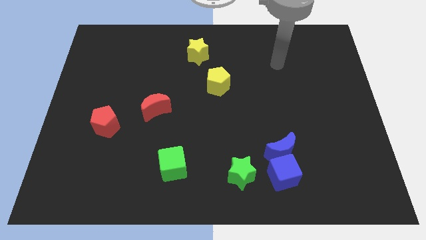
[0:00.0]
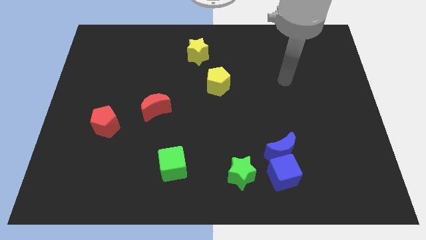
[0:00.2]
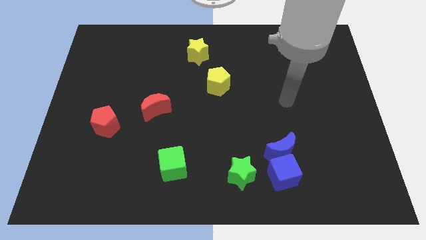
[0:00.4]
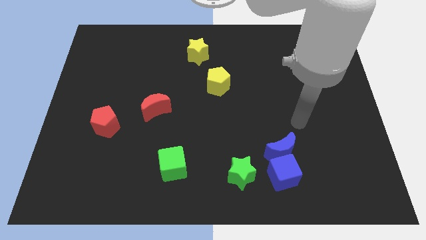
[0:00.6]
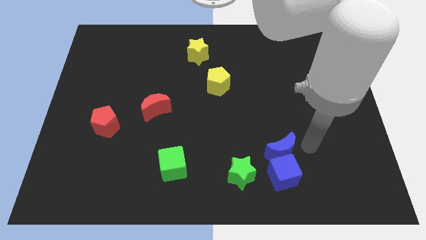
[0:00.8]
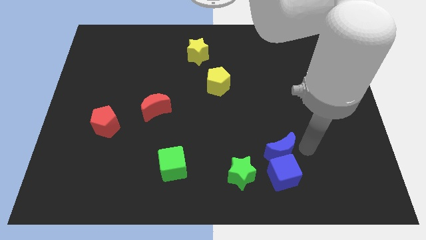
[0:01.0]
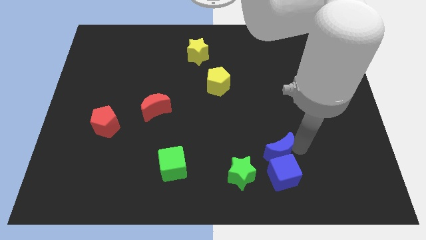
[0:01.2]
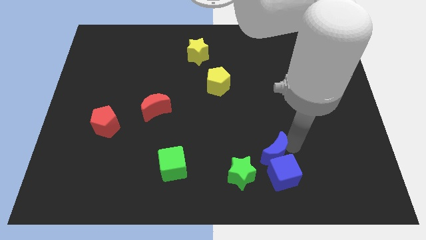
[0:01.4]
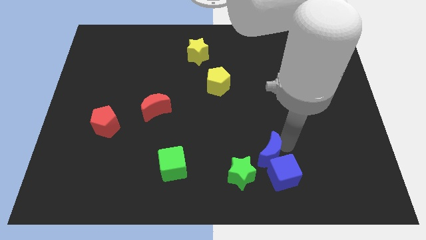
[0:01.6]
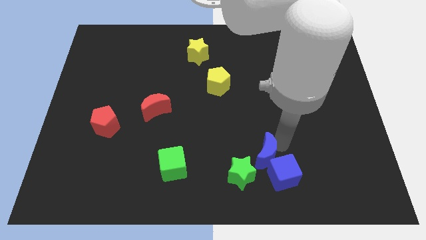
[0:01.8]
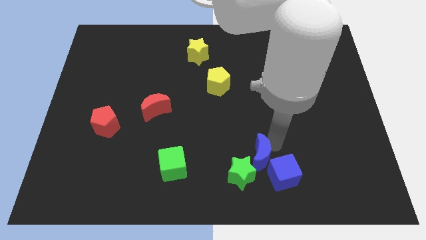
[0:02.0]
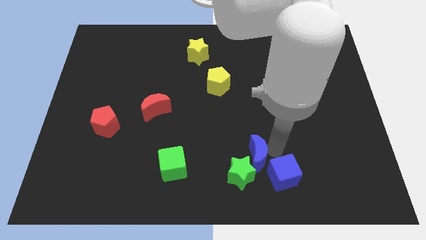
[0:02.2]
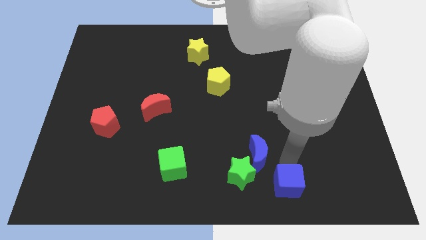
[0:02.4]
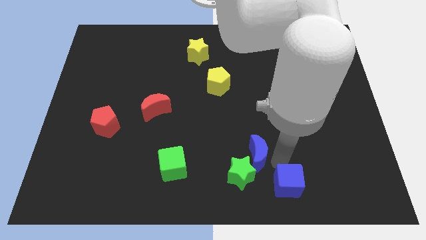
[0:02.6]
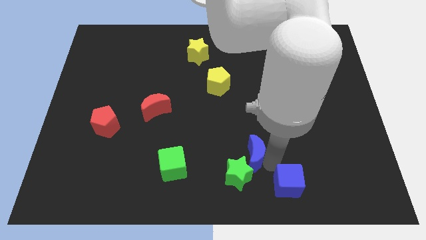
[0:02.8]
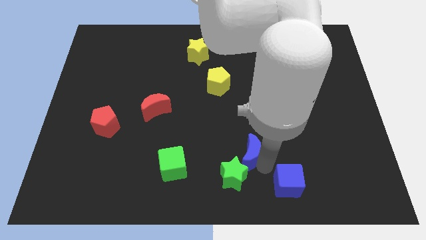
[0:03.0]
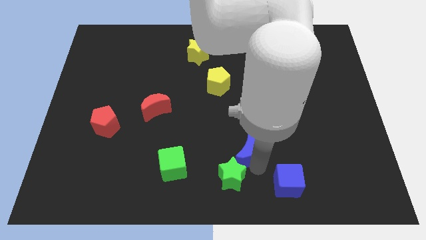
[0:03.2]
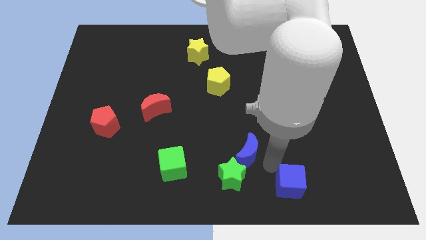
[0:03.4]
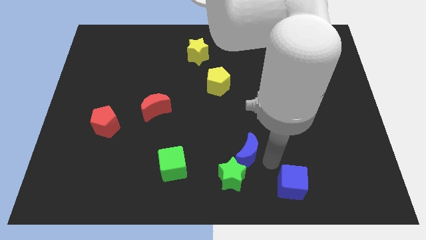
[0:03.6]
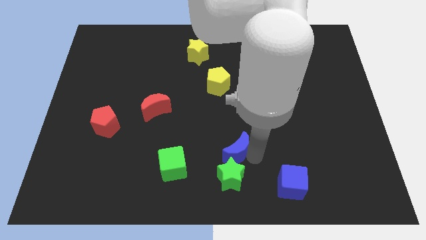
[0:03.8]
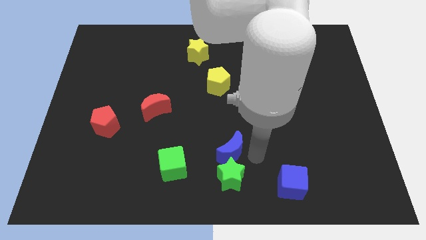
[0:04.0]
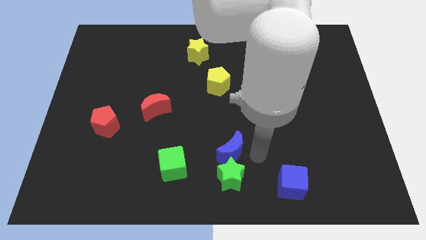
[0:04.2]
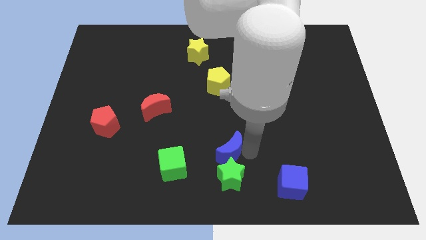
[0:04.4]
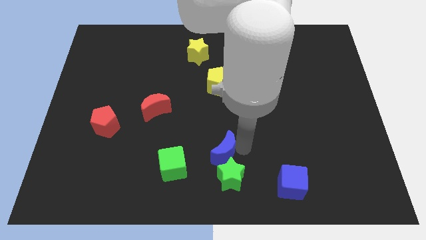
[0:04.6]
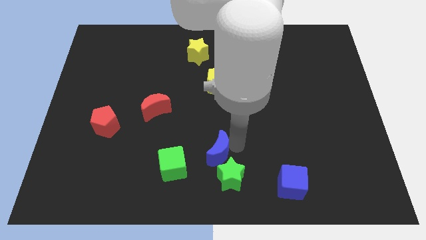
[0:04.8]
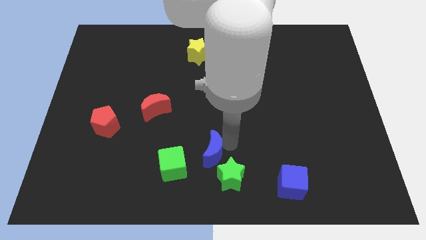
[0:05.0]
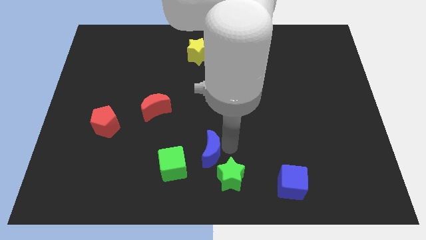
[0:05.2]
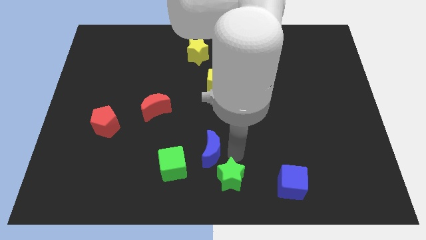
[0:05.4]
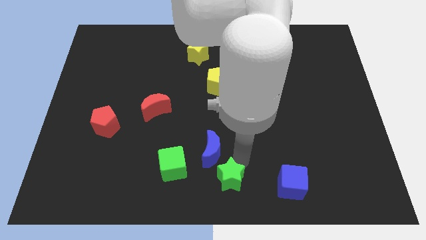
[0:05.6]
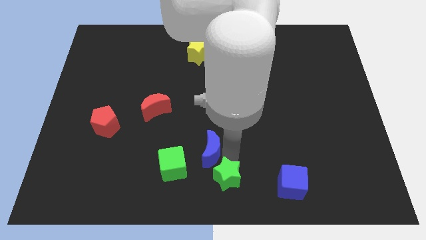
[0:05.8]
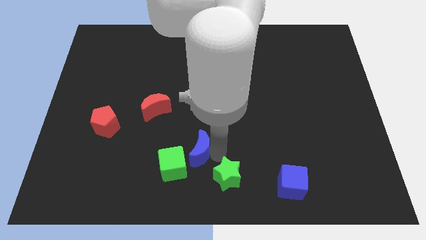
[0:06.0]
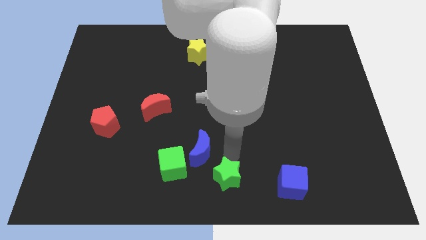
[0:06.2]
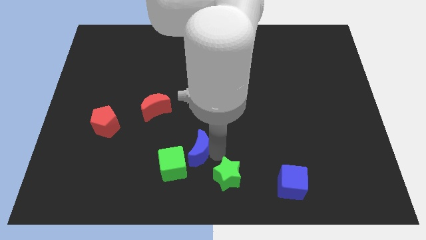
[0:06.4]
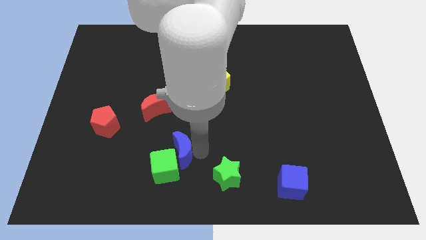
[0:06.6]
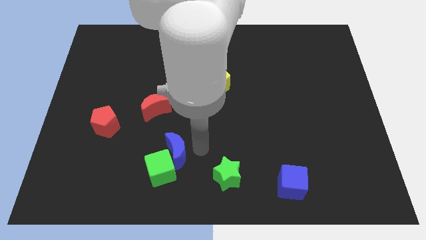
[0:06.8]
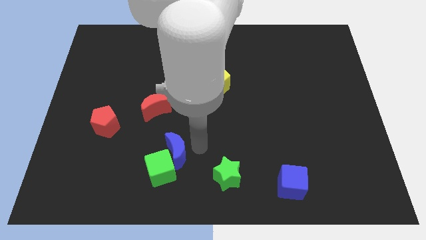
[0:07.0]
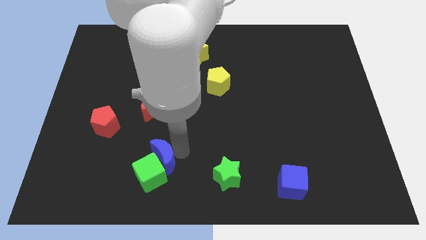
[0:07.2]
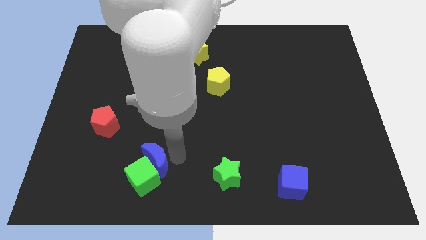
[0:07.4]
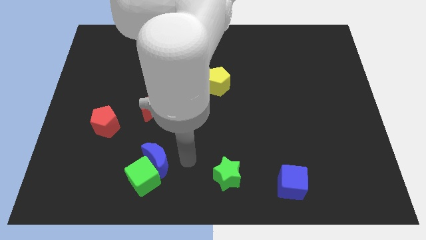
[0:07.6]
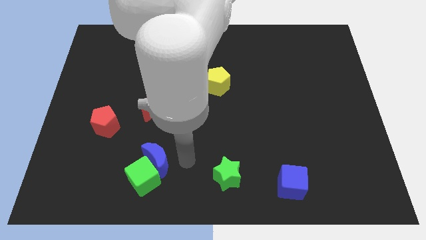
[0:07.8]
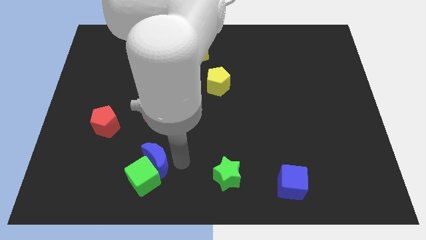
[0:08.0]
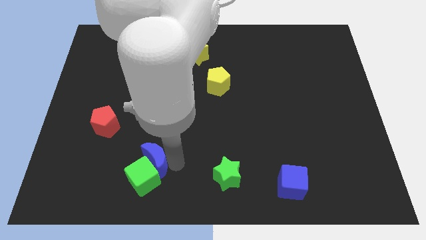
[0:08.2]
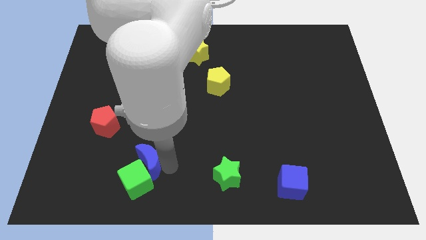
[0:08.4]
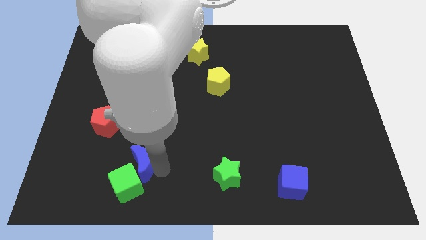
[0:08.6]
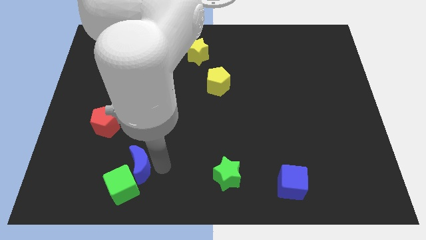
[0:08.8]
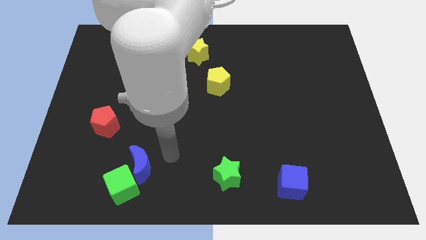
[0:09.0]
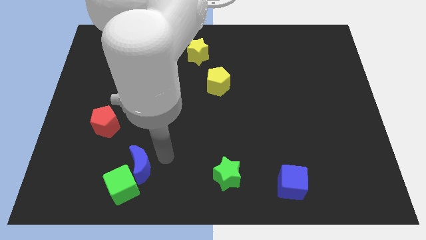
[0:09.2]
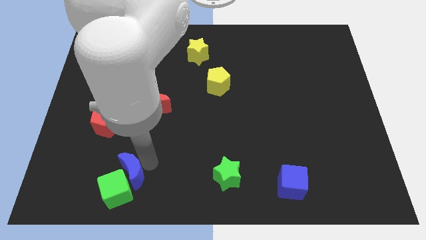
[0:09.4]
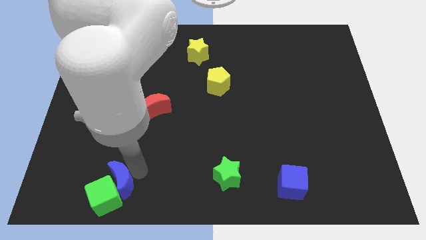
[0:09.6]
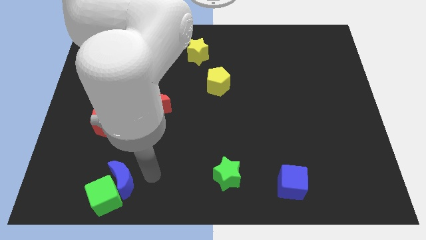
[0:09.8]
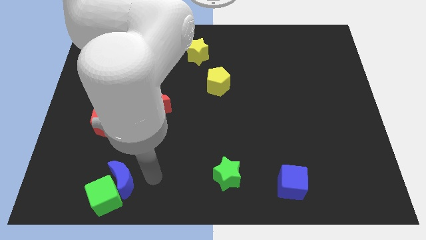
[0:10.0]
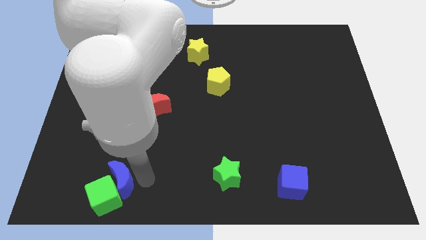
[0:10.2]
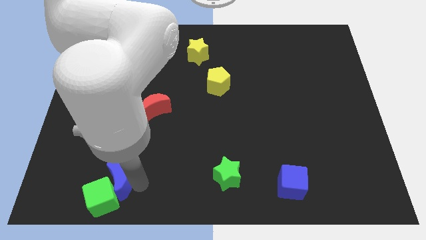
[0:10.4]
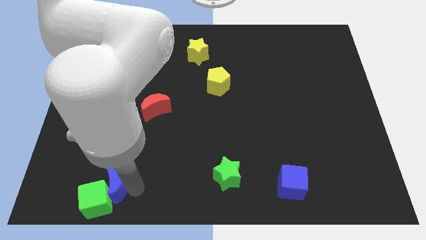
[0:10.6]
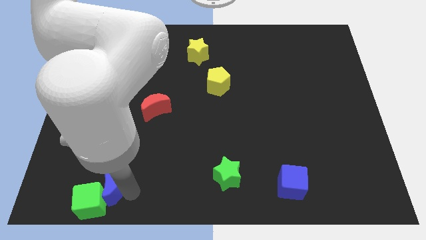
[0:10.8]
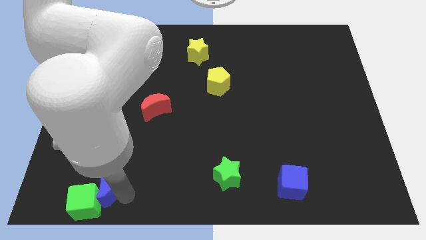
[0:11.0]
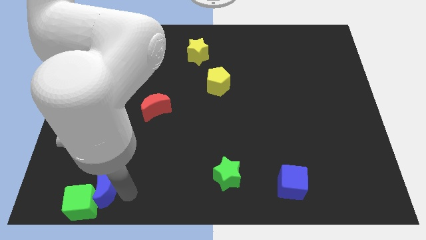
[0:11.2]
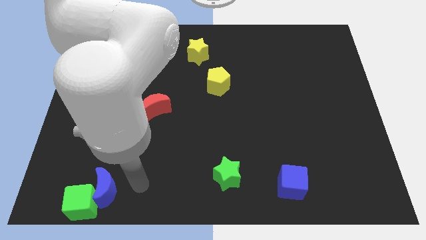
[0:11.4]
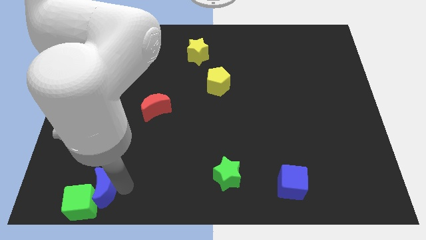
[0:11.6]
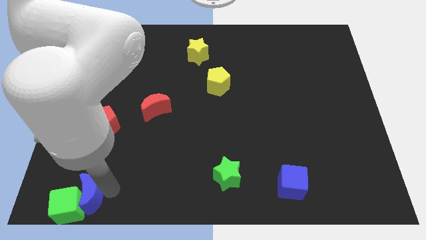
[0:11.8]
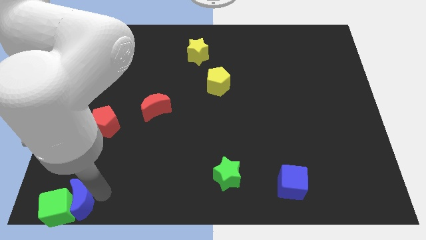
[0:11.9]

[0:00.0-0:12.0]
move the blue moon to the bottom left
